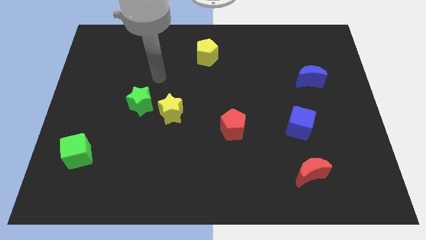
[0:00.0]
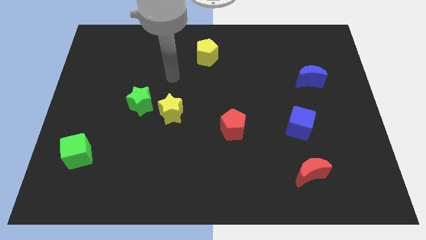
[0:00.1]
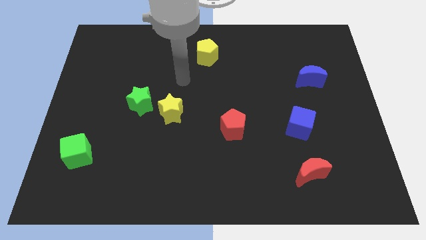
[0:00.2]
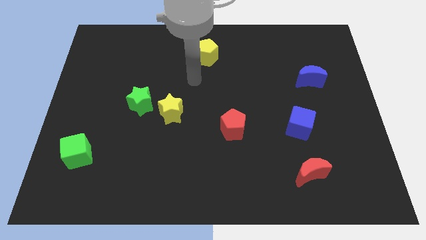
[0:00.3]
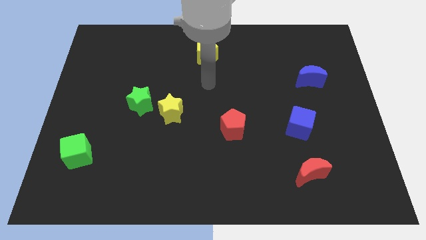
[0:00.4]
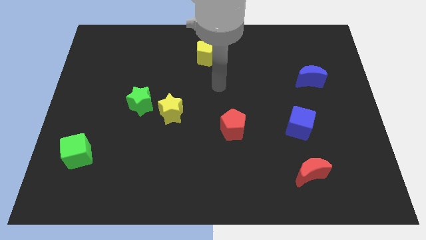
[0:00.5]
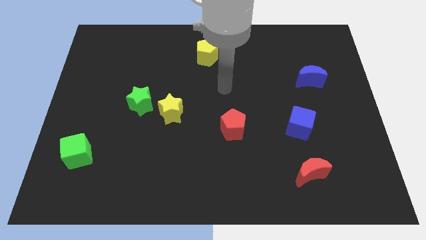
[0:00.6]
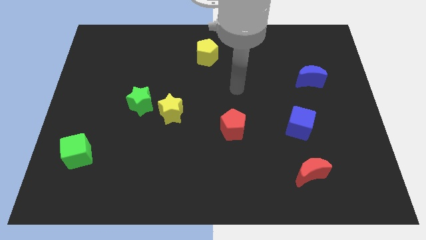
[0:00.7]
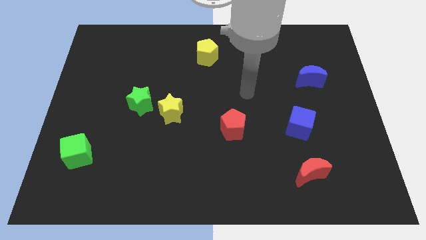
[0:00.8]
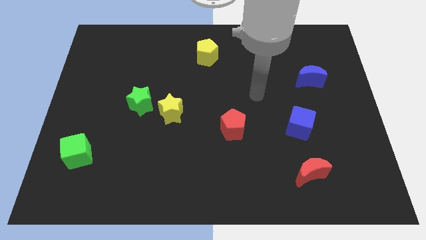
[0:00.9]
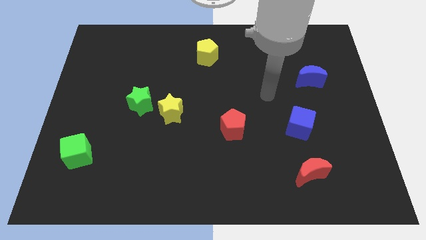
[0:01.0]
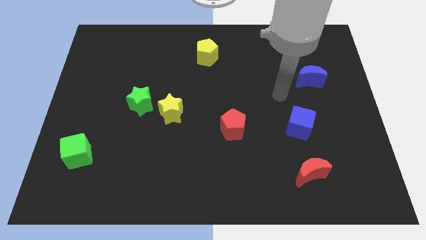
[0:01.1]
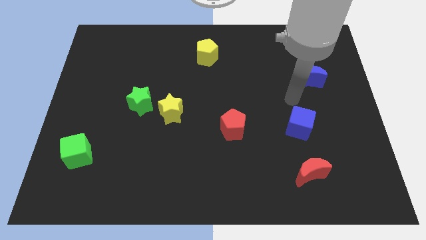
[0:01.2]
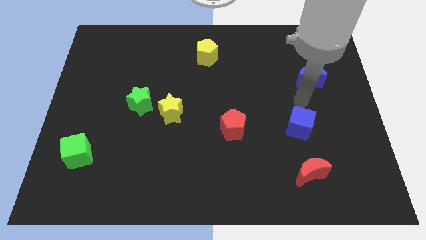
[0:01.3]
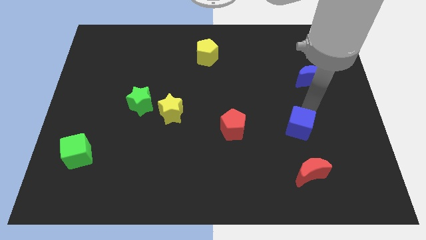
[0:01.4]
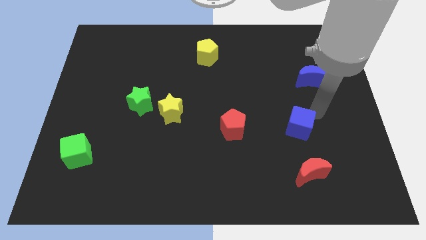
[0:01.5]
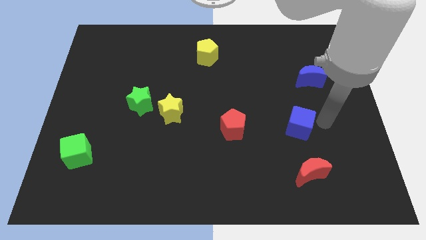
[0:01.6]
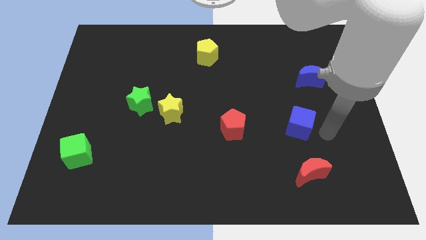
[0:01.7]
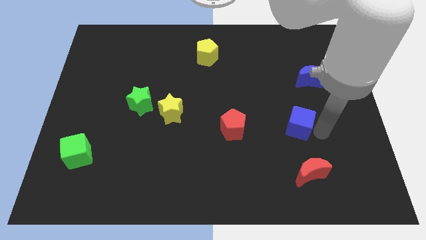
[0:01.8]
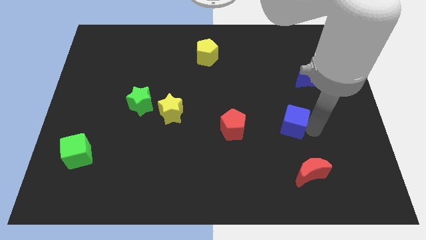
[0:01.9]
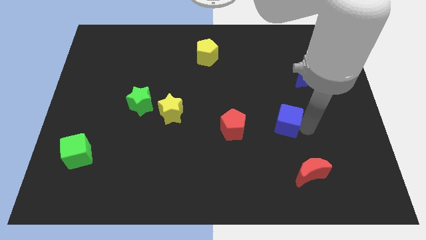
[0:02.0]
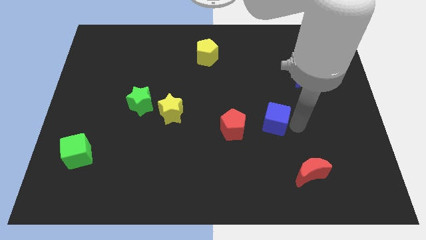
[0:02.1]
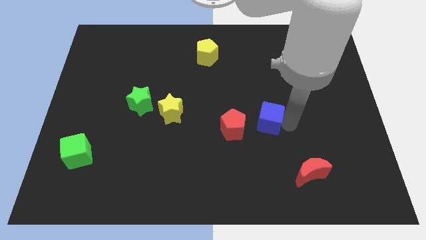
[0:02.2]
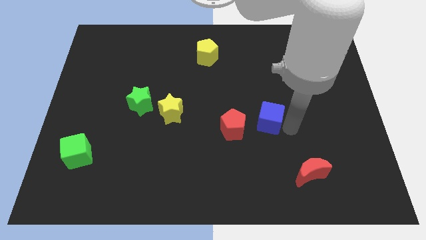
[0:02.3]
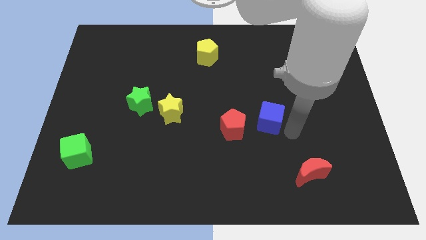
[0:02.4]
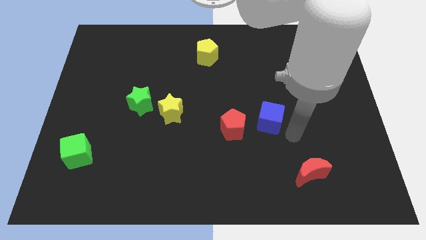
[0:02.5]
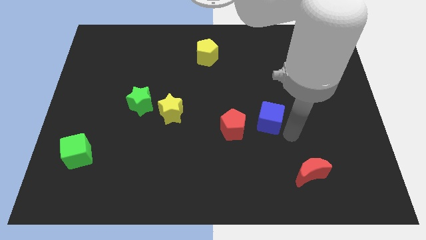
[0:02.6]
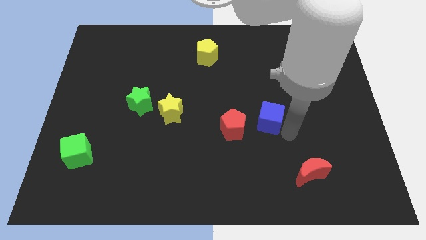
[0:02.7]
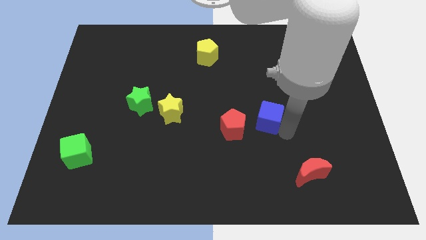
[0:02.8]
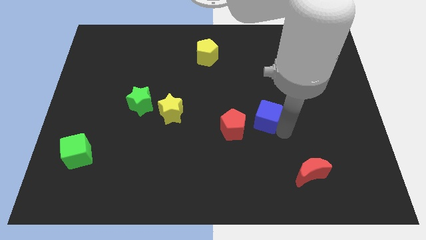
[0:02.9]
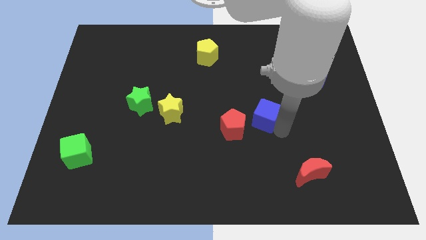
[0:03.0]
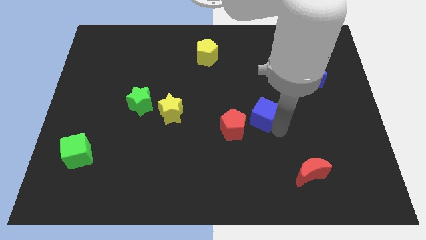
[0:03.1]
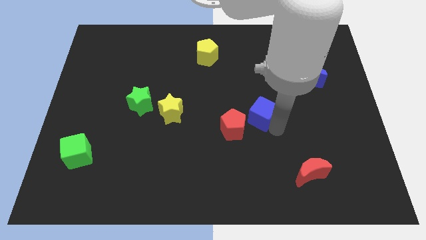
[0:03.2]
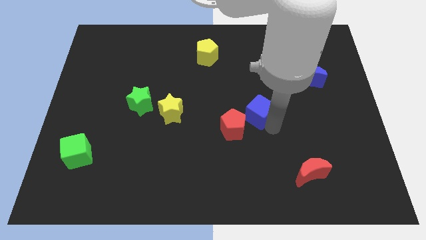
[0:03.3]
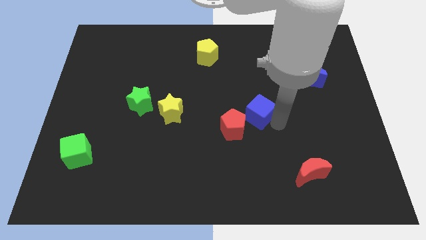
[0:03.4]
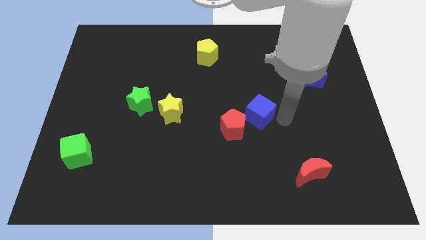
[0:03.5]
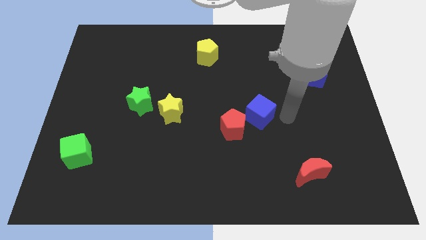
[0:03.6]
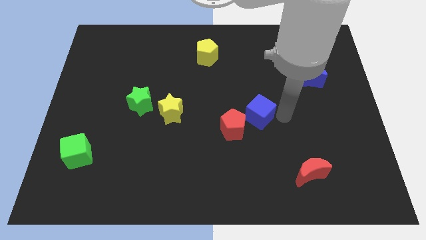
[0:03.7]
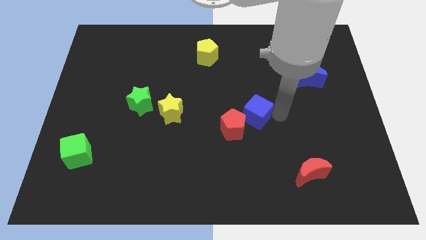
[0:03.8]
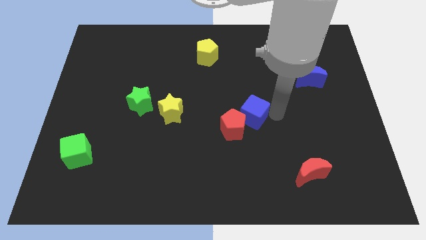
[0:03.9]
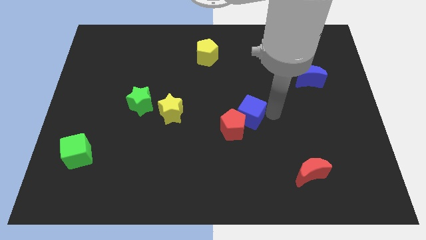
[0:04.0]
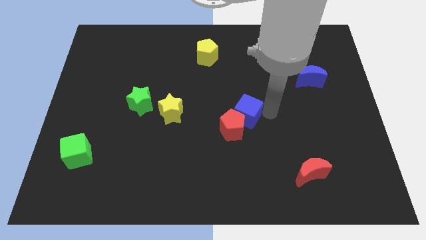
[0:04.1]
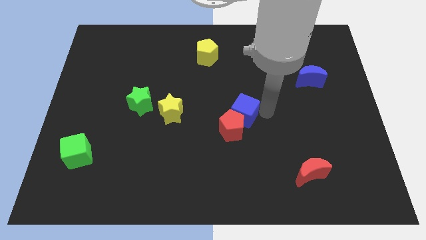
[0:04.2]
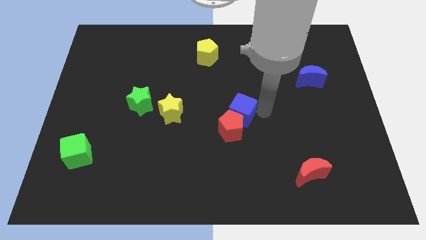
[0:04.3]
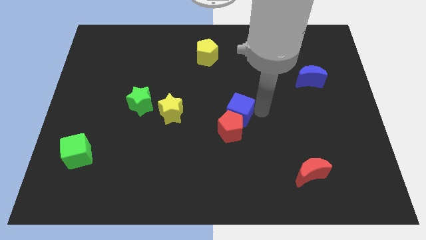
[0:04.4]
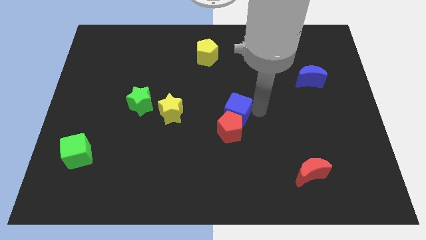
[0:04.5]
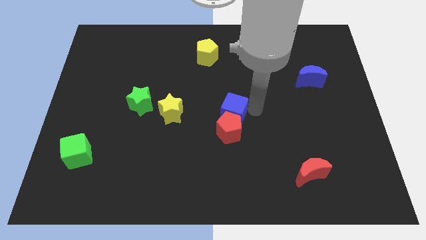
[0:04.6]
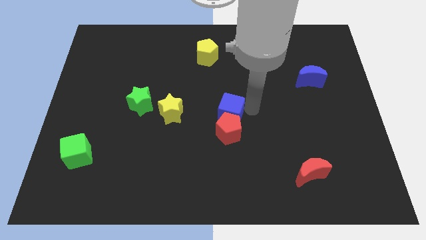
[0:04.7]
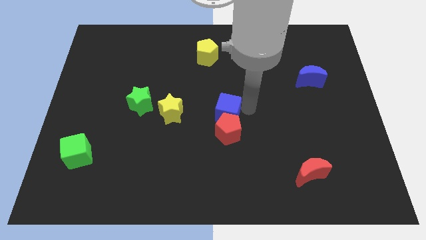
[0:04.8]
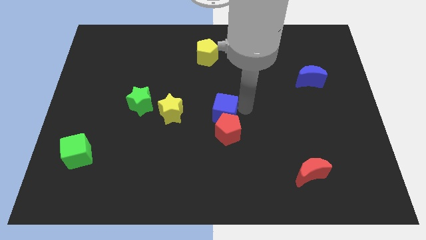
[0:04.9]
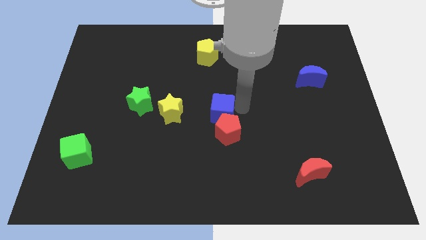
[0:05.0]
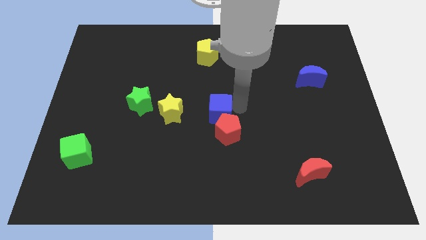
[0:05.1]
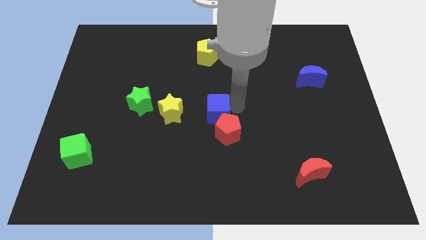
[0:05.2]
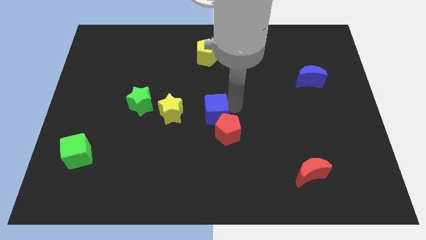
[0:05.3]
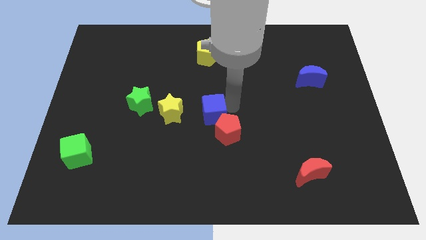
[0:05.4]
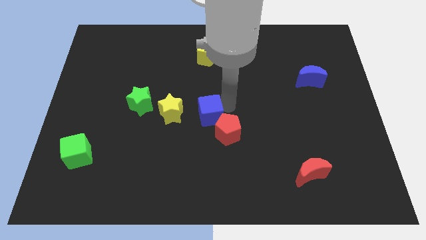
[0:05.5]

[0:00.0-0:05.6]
slide the blue cube to the left

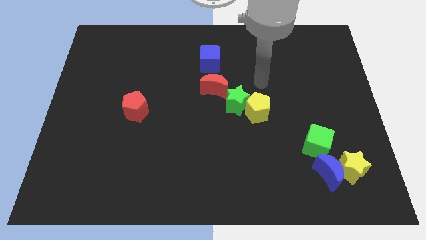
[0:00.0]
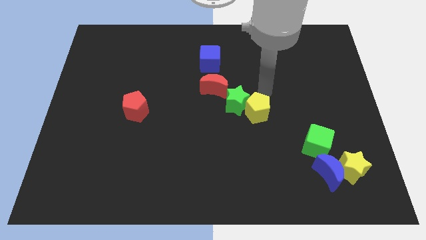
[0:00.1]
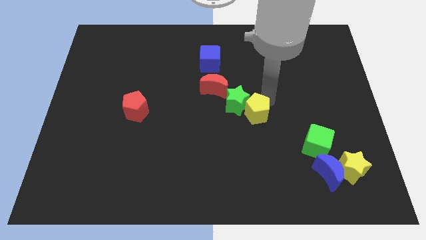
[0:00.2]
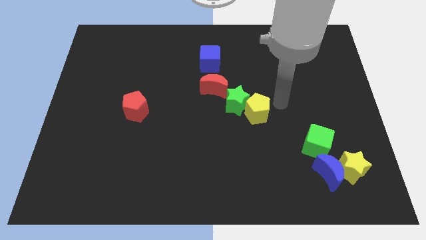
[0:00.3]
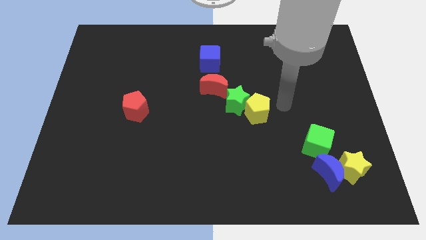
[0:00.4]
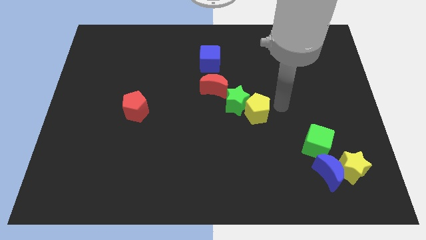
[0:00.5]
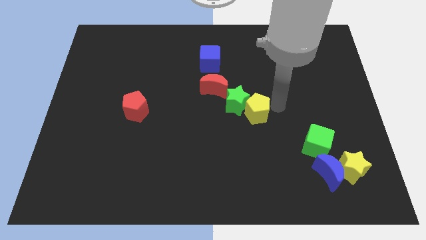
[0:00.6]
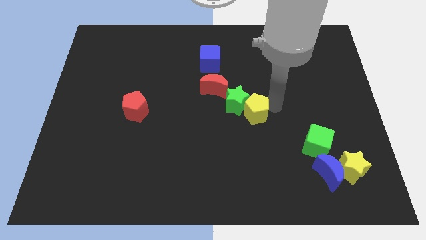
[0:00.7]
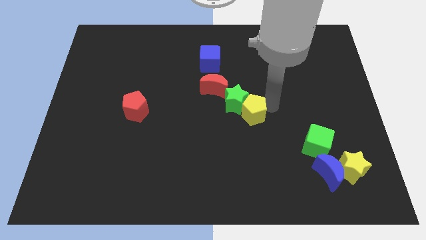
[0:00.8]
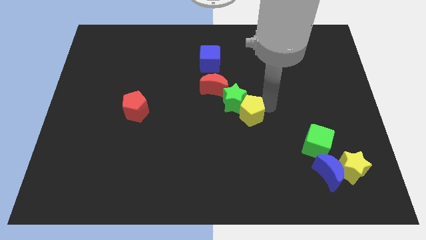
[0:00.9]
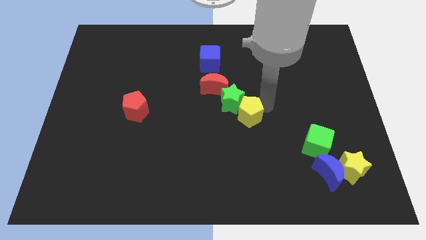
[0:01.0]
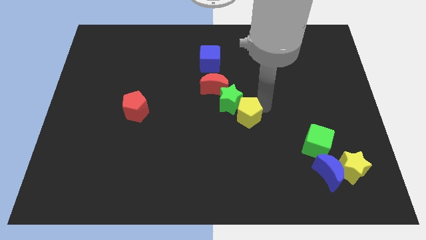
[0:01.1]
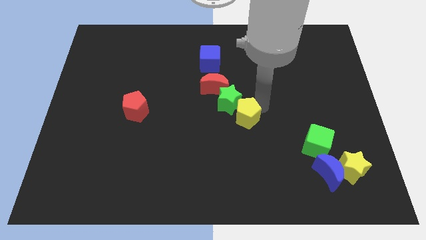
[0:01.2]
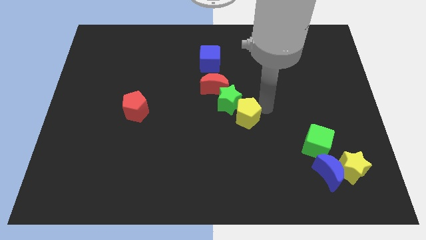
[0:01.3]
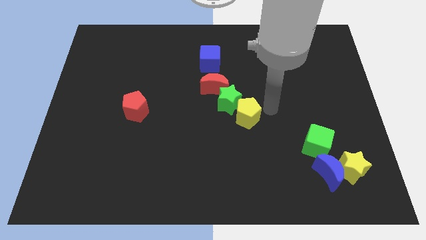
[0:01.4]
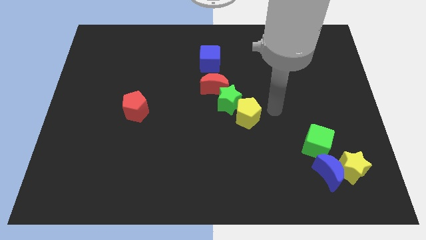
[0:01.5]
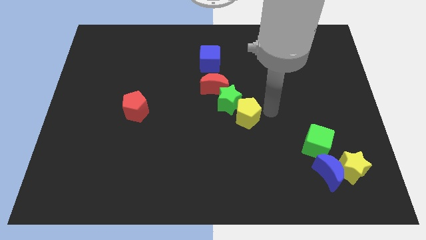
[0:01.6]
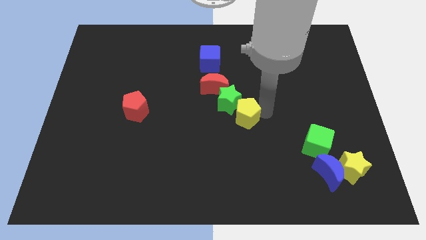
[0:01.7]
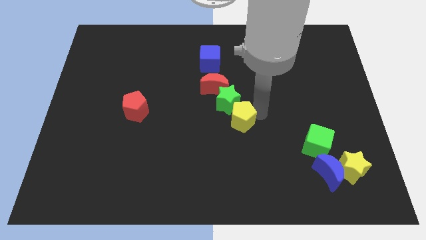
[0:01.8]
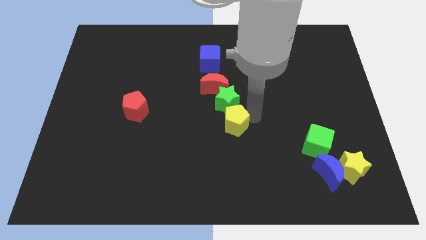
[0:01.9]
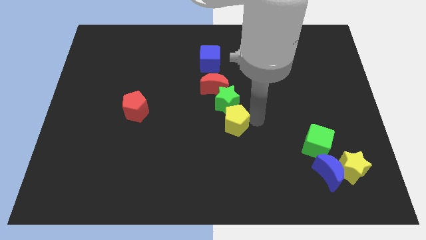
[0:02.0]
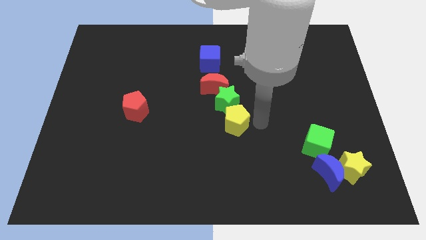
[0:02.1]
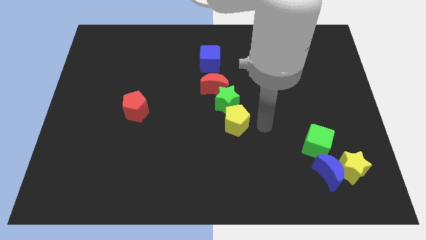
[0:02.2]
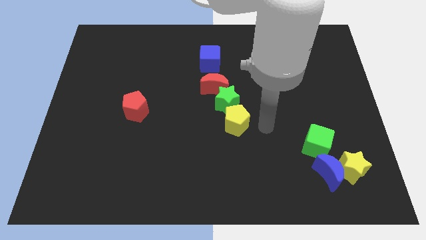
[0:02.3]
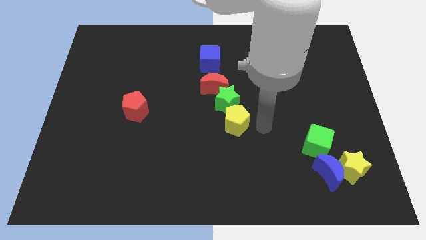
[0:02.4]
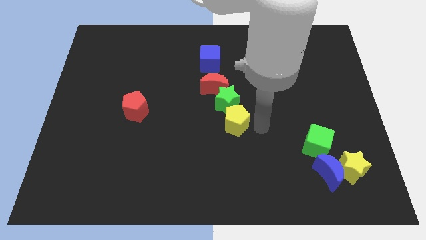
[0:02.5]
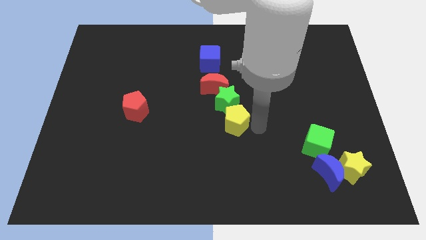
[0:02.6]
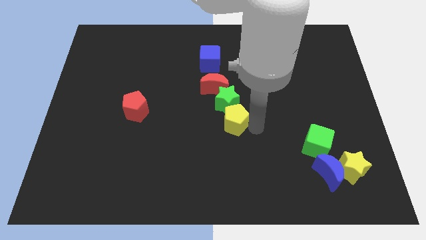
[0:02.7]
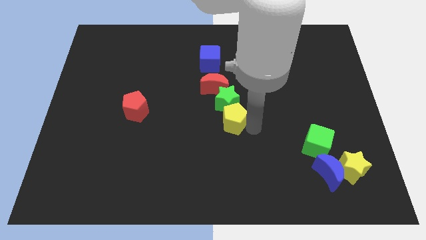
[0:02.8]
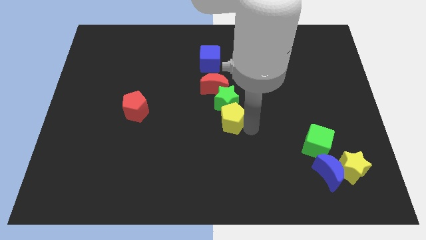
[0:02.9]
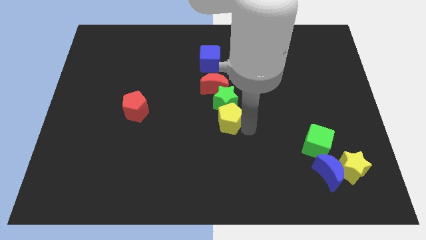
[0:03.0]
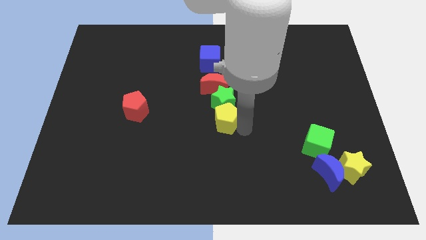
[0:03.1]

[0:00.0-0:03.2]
slightly push the yellow pentagon left
